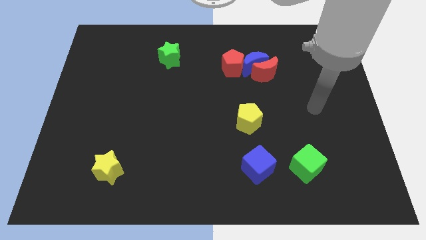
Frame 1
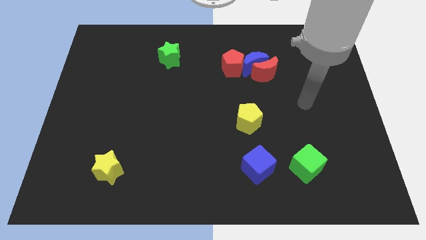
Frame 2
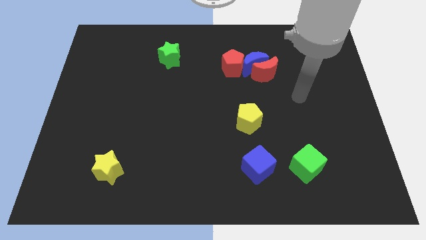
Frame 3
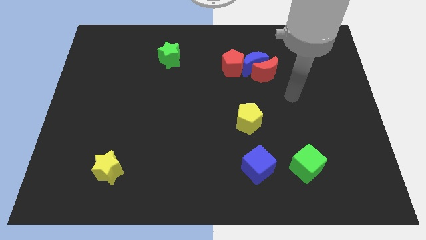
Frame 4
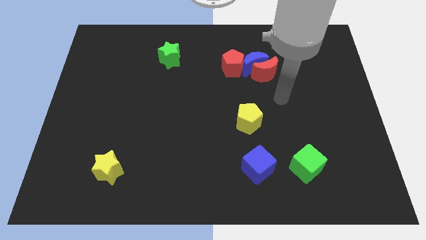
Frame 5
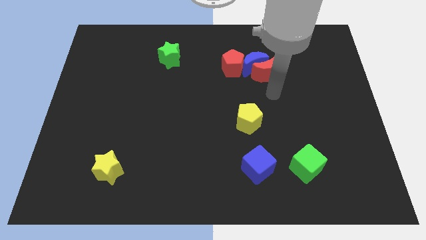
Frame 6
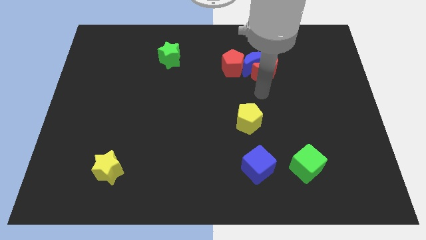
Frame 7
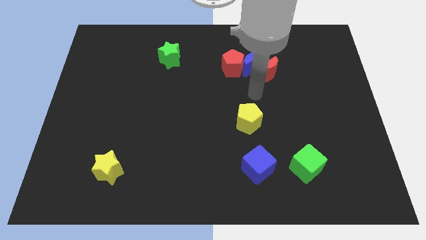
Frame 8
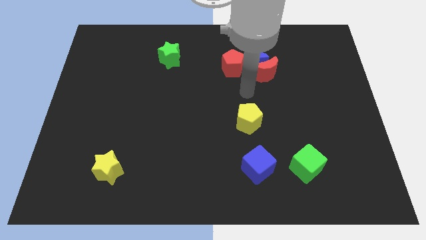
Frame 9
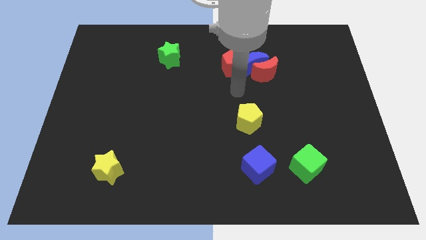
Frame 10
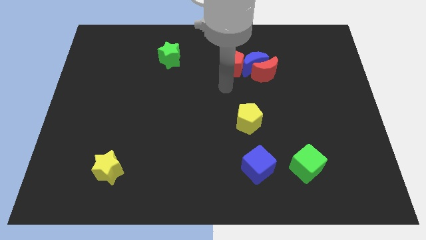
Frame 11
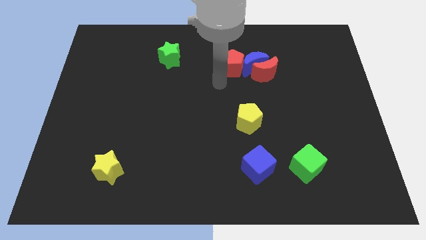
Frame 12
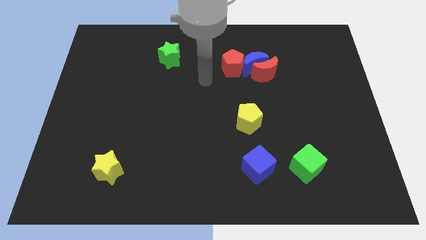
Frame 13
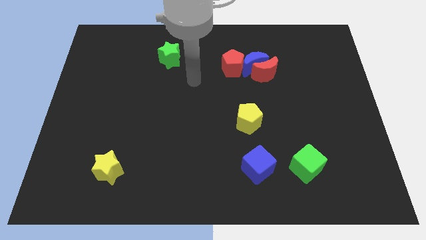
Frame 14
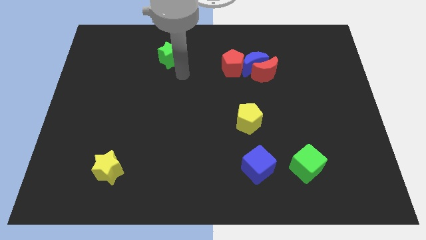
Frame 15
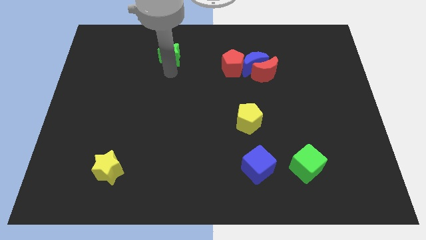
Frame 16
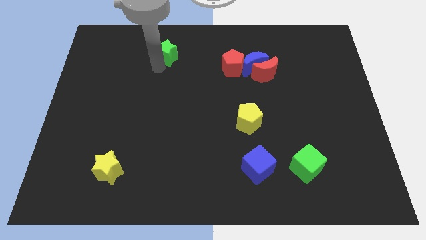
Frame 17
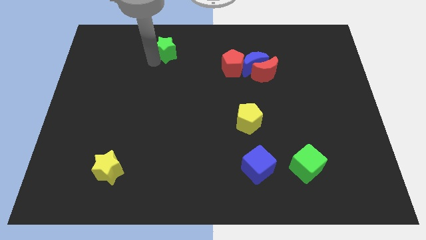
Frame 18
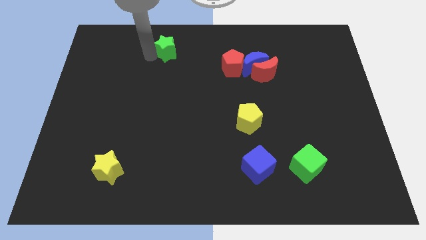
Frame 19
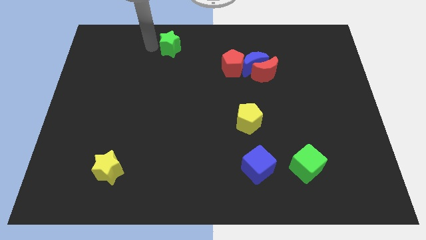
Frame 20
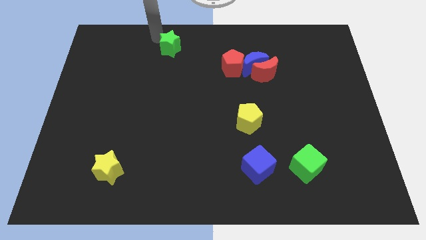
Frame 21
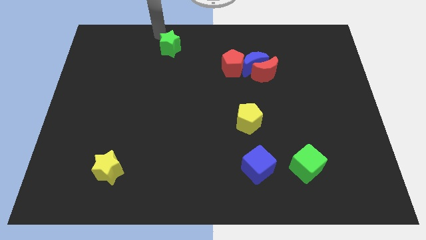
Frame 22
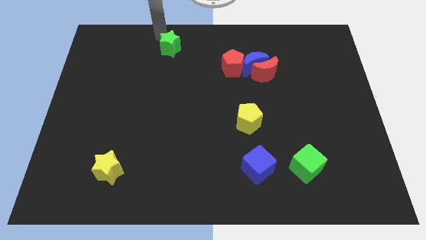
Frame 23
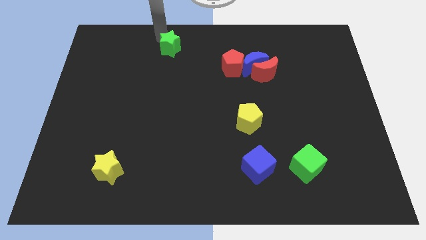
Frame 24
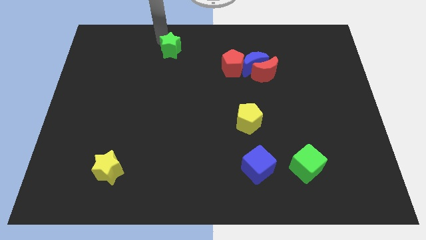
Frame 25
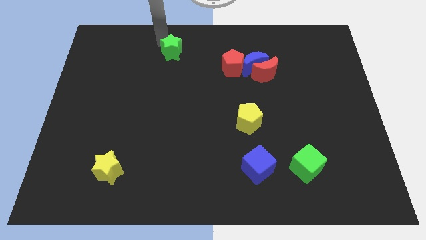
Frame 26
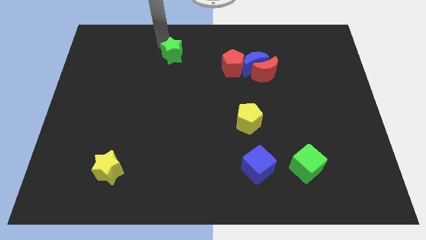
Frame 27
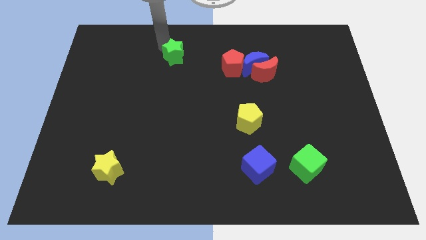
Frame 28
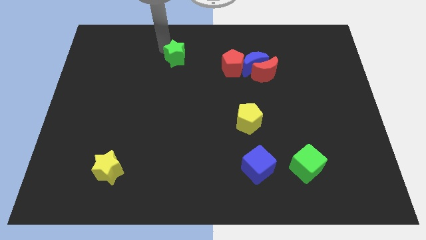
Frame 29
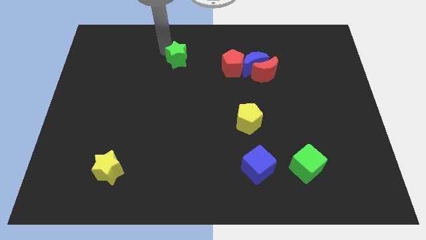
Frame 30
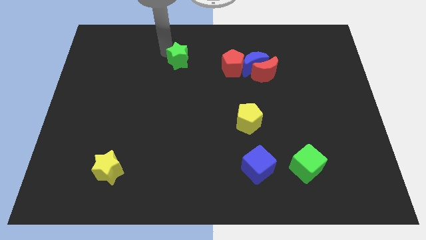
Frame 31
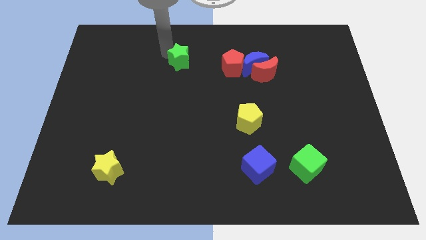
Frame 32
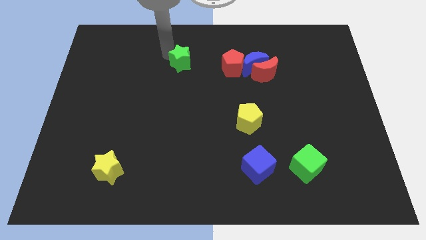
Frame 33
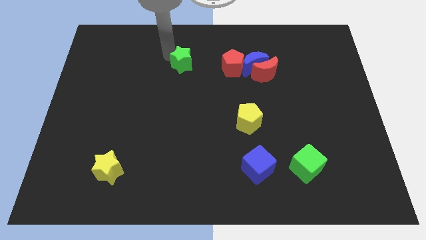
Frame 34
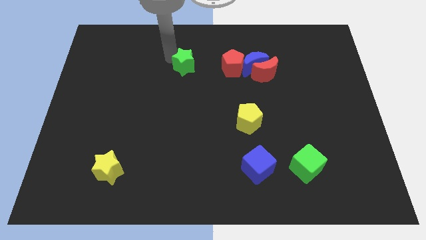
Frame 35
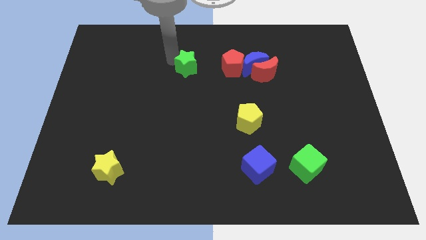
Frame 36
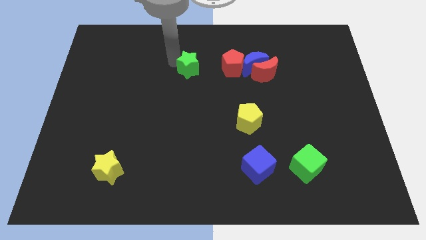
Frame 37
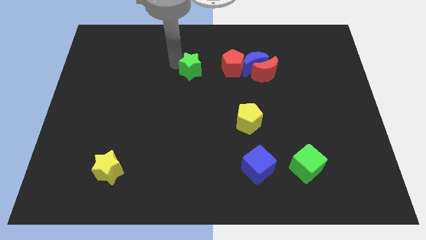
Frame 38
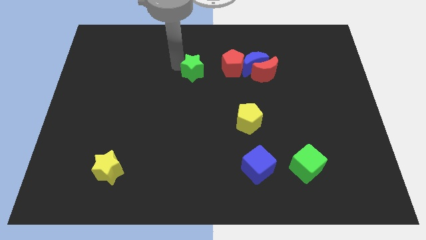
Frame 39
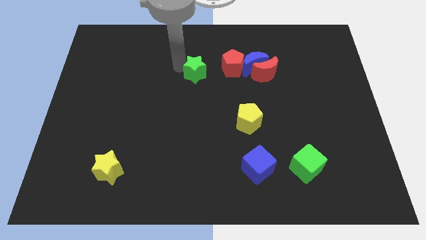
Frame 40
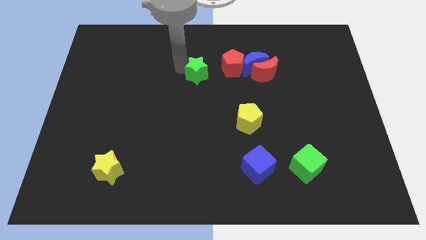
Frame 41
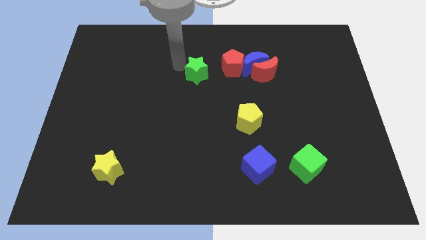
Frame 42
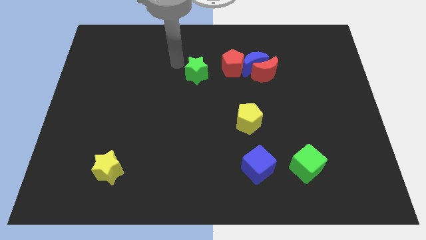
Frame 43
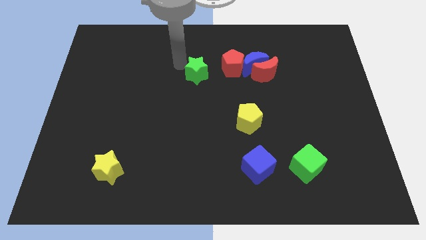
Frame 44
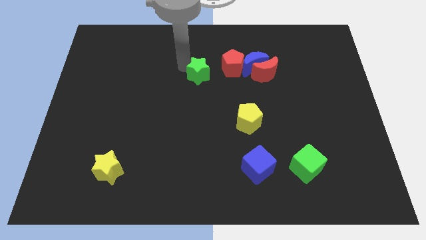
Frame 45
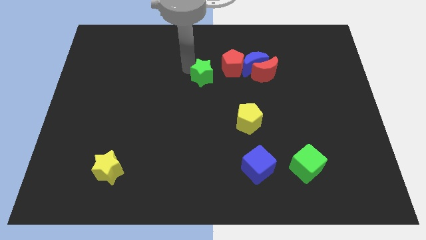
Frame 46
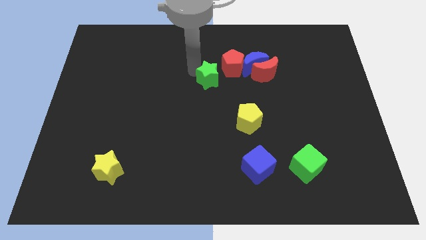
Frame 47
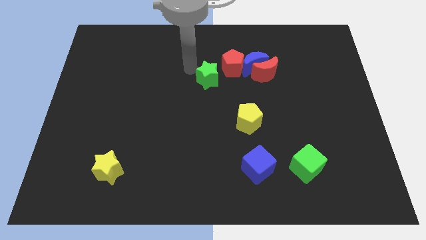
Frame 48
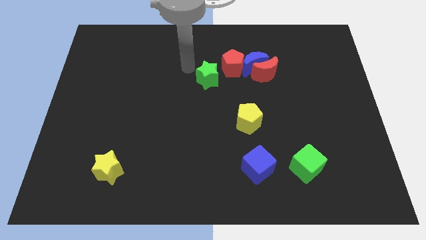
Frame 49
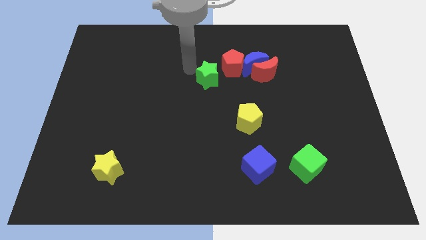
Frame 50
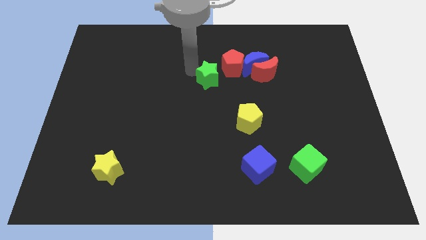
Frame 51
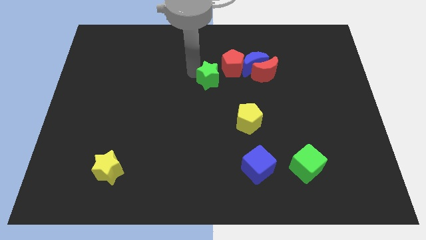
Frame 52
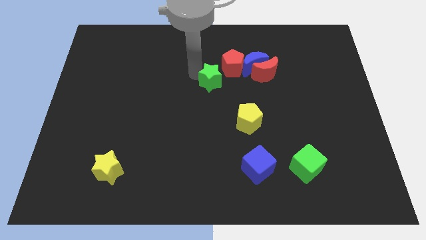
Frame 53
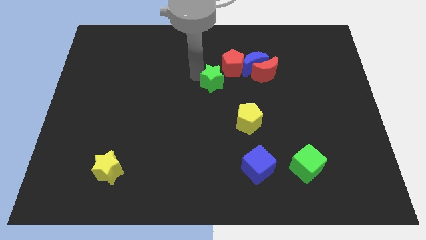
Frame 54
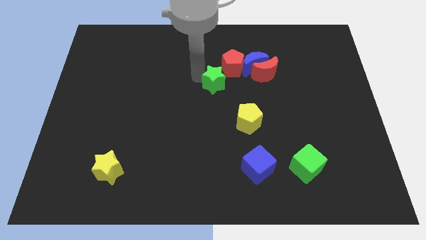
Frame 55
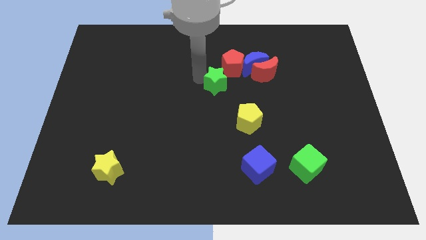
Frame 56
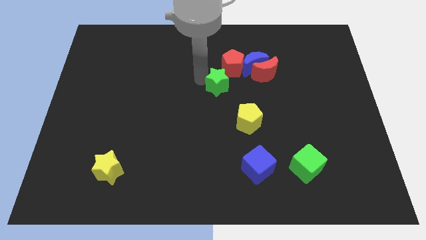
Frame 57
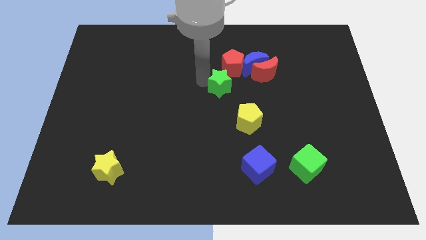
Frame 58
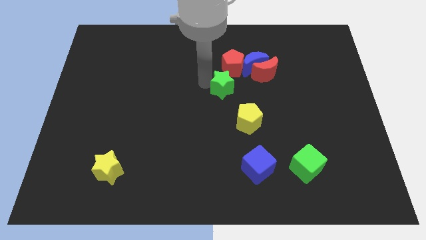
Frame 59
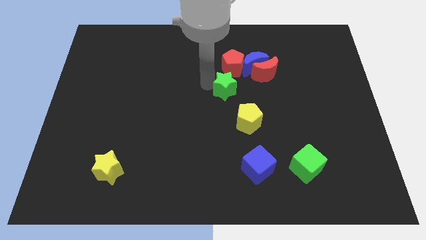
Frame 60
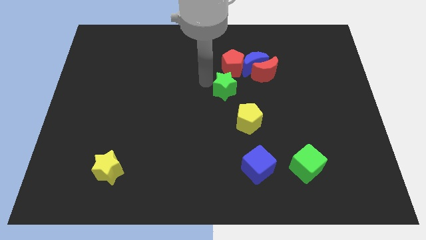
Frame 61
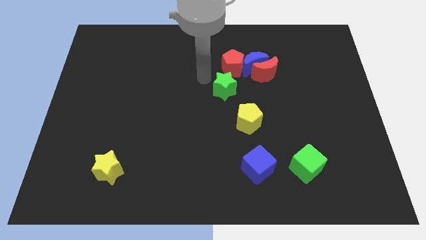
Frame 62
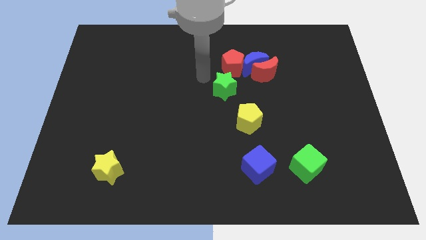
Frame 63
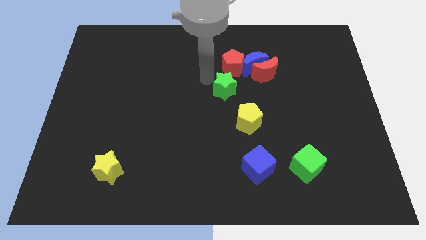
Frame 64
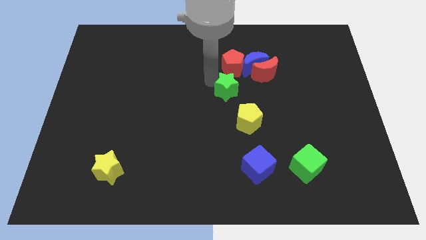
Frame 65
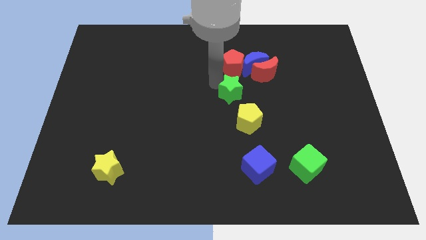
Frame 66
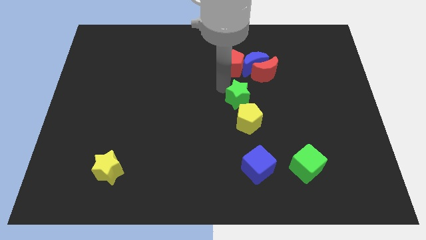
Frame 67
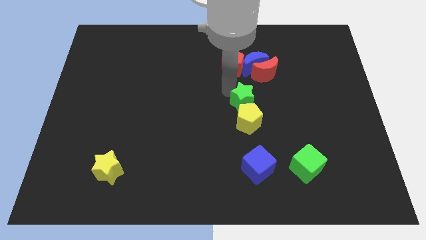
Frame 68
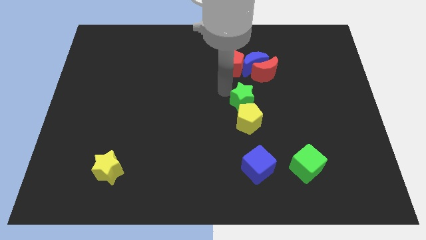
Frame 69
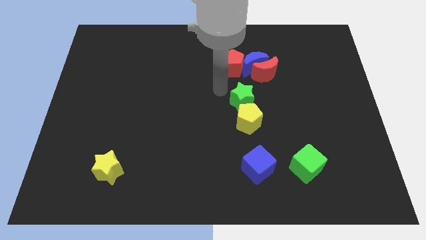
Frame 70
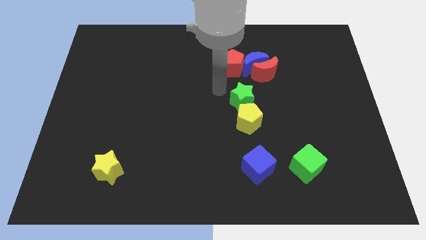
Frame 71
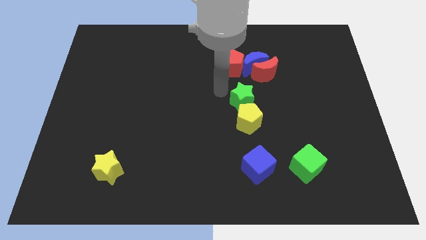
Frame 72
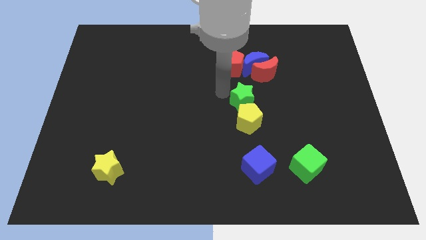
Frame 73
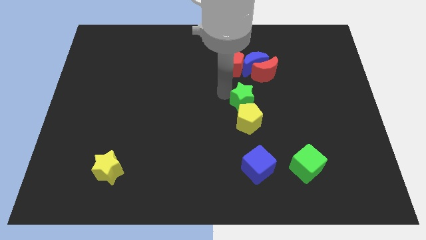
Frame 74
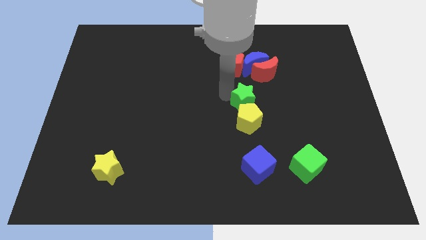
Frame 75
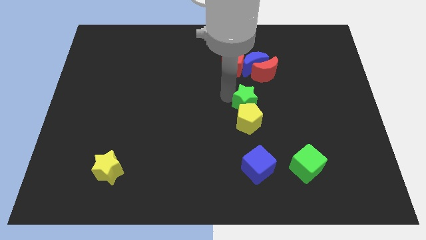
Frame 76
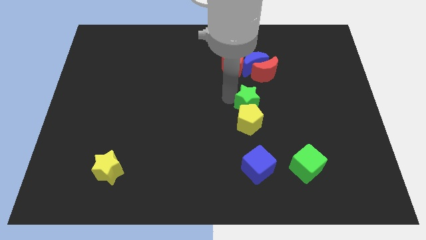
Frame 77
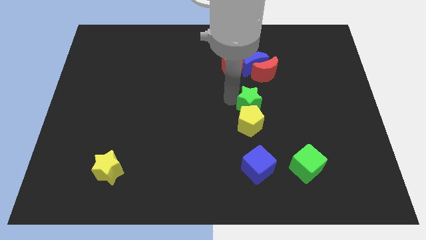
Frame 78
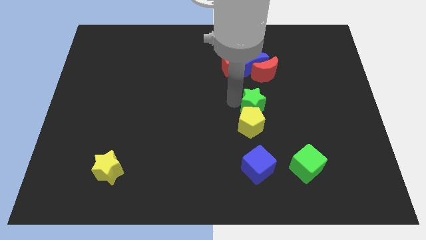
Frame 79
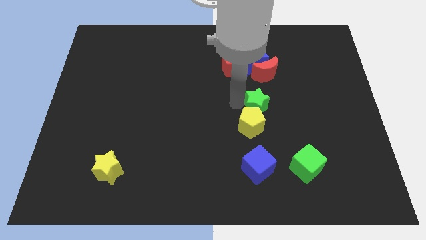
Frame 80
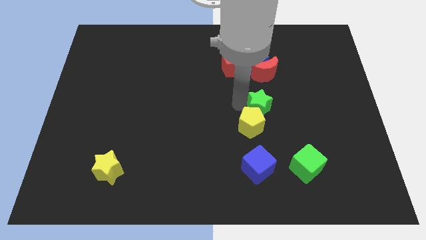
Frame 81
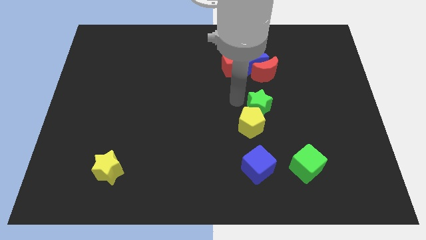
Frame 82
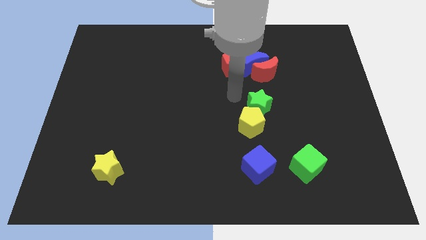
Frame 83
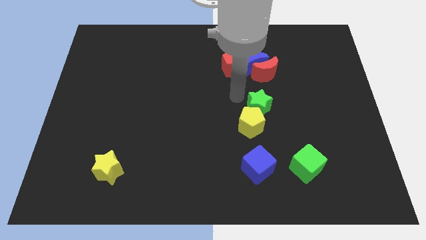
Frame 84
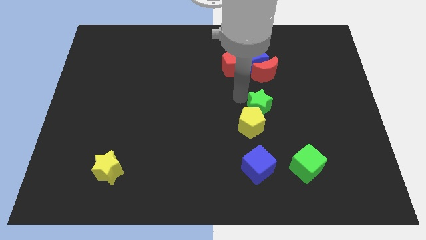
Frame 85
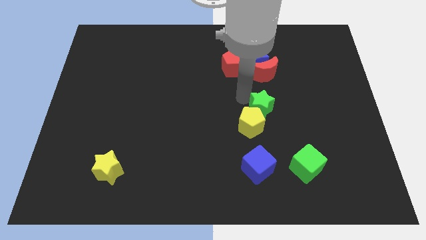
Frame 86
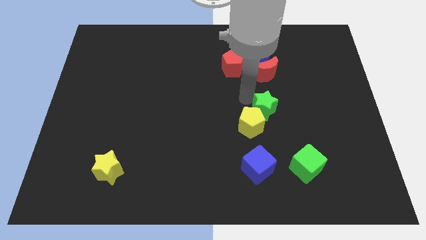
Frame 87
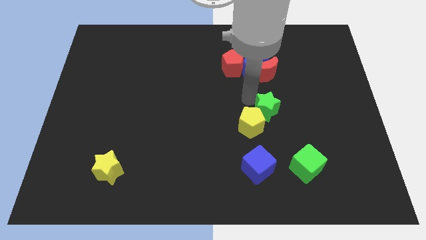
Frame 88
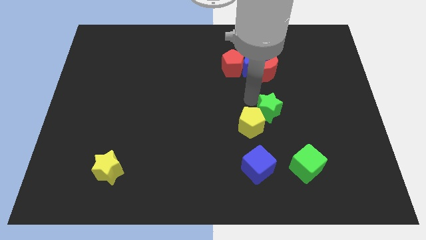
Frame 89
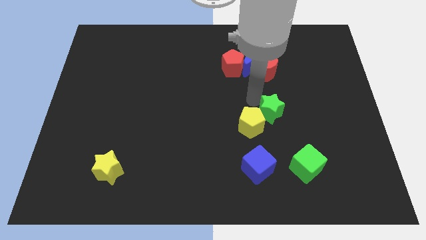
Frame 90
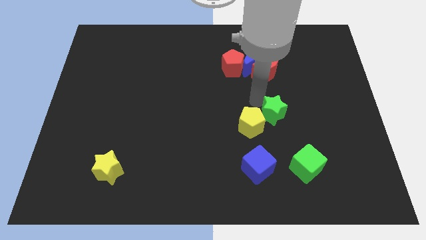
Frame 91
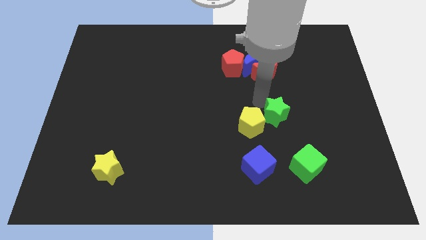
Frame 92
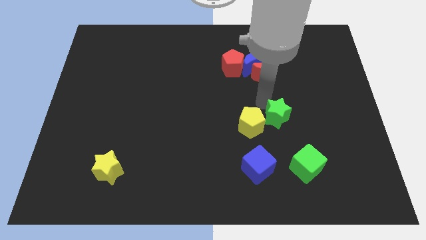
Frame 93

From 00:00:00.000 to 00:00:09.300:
push the green star above the green cube
